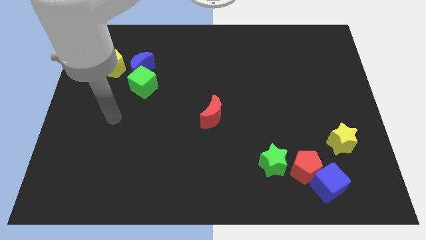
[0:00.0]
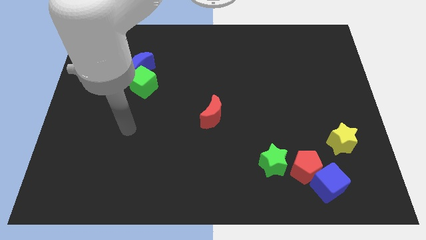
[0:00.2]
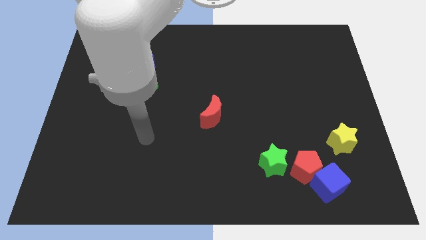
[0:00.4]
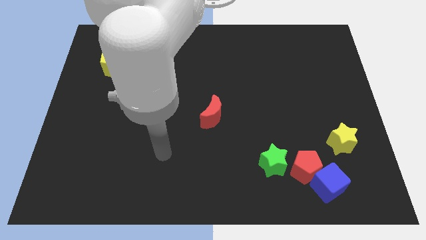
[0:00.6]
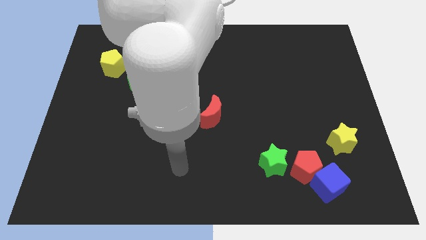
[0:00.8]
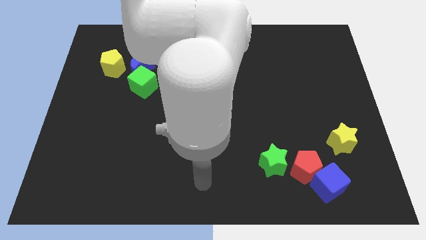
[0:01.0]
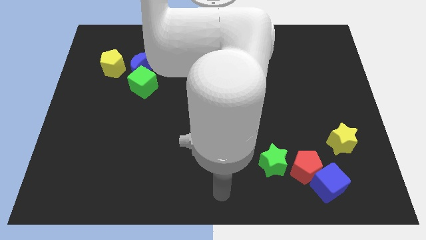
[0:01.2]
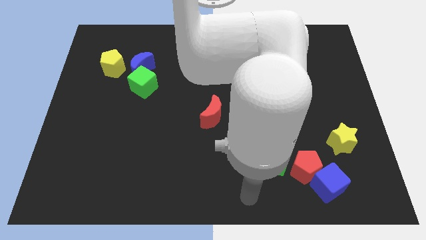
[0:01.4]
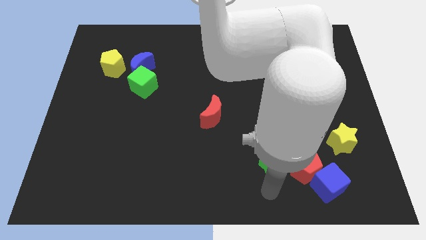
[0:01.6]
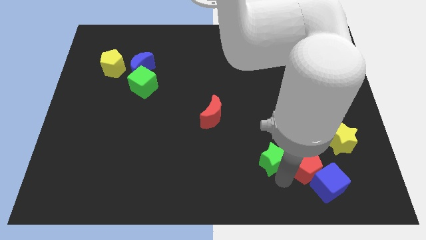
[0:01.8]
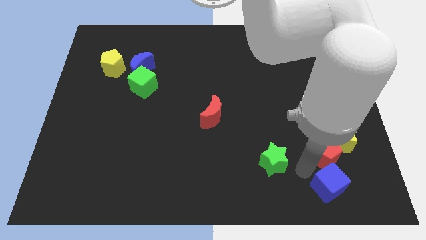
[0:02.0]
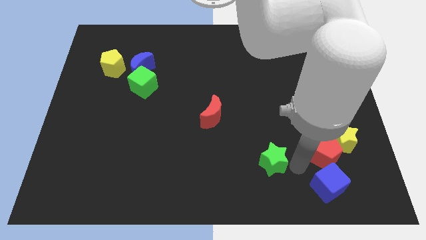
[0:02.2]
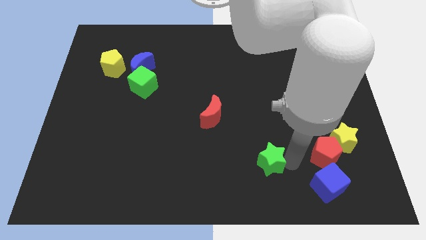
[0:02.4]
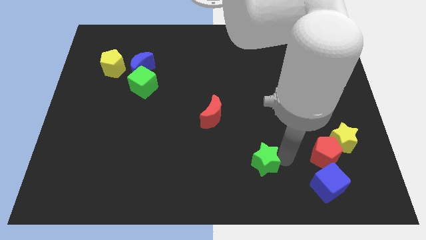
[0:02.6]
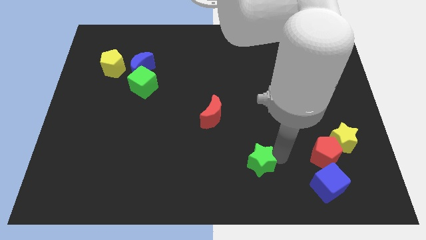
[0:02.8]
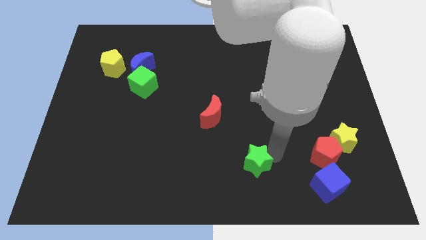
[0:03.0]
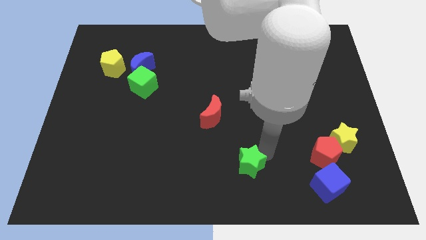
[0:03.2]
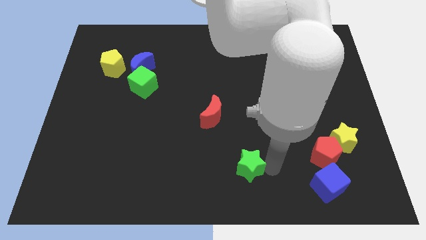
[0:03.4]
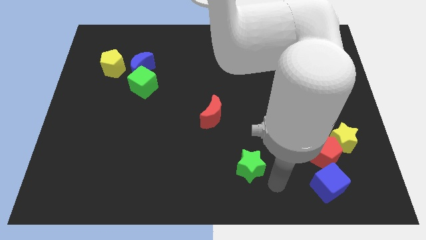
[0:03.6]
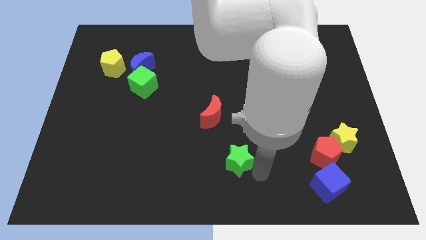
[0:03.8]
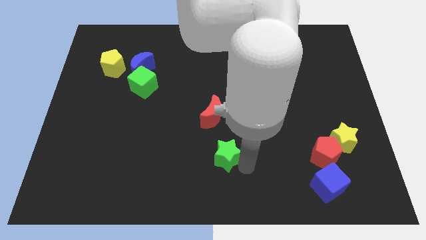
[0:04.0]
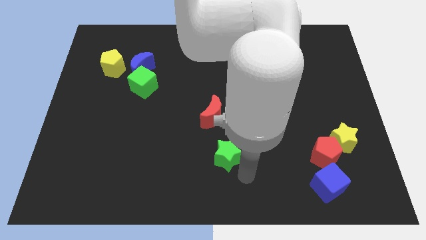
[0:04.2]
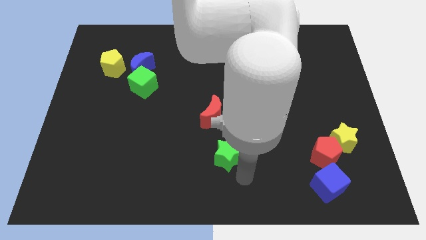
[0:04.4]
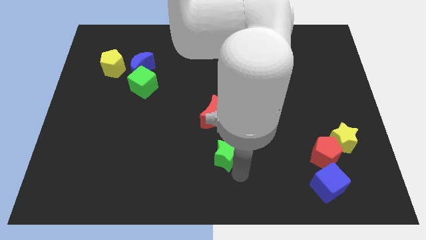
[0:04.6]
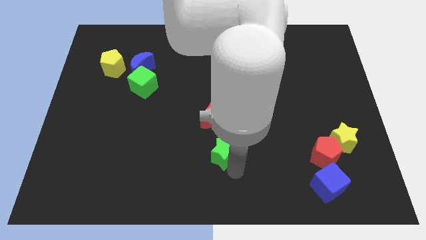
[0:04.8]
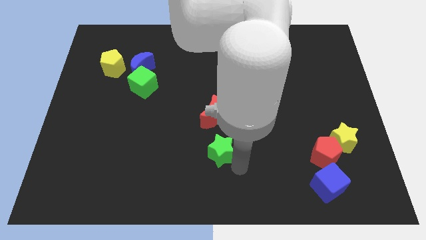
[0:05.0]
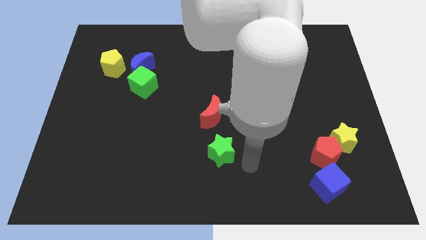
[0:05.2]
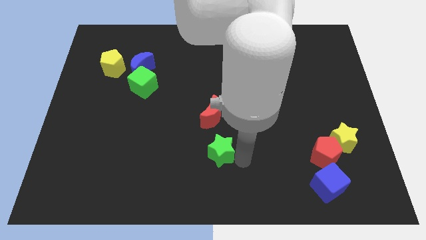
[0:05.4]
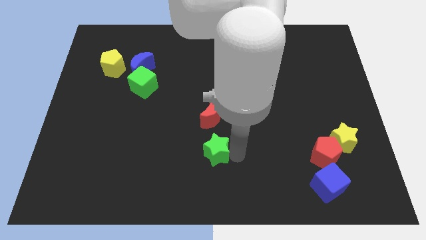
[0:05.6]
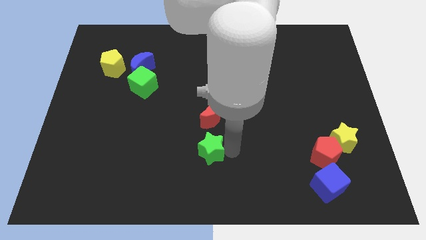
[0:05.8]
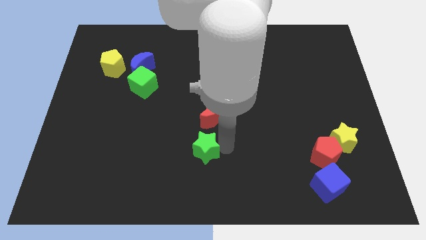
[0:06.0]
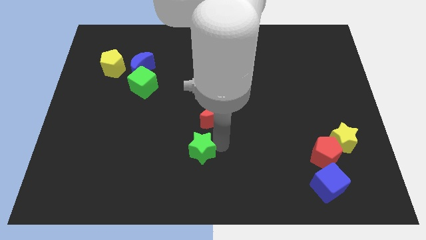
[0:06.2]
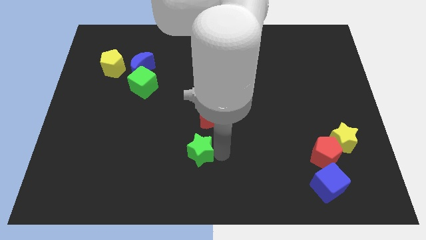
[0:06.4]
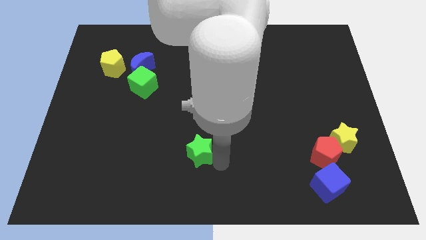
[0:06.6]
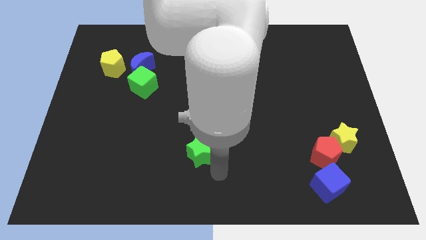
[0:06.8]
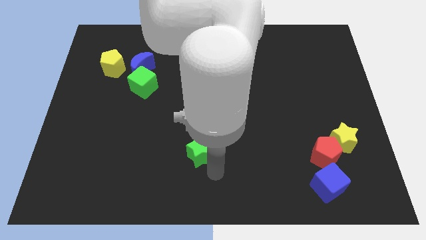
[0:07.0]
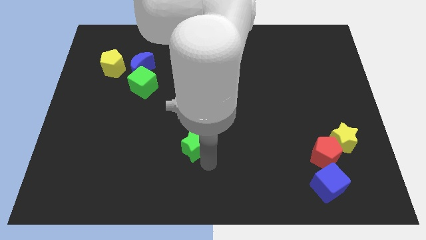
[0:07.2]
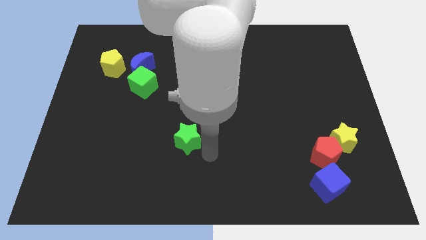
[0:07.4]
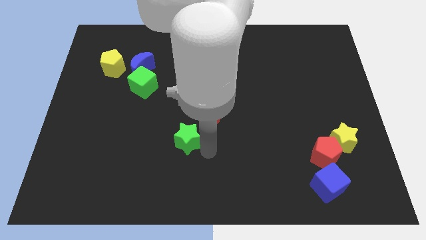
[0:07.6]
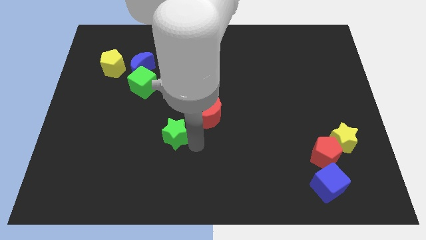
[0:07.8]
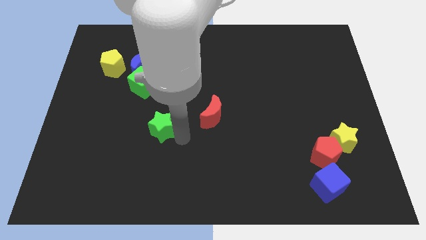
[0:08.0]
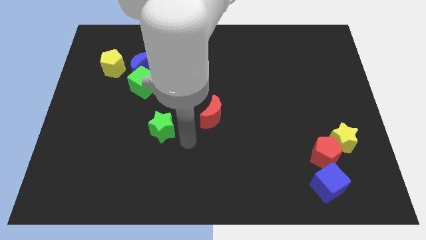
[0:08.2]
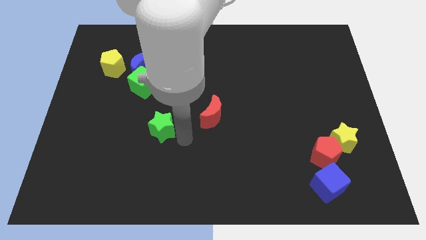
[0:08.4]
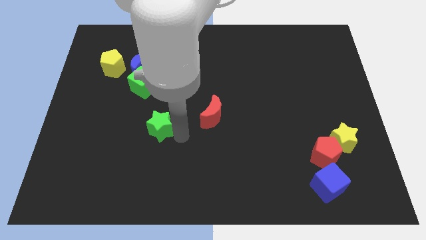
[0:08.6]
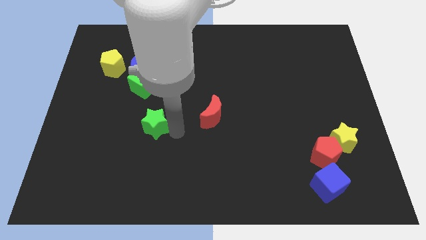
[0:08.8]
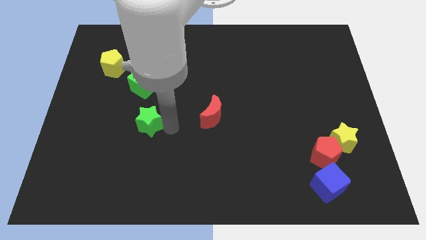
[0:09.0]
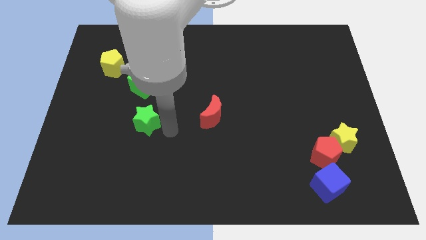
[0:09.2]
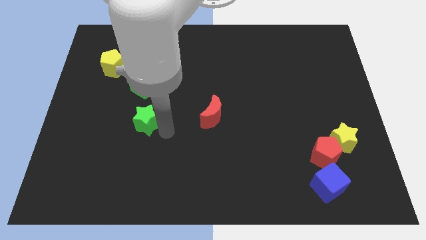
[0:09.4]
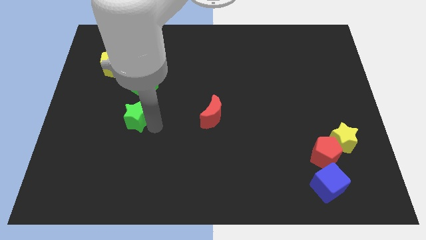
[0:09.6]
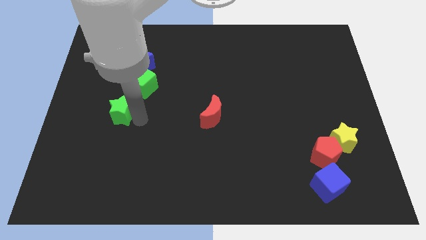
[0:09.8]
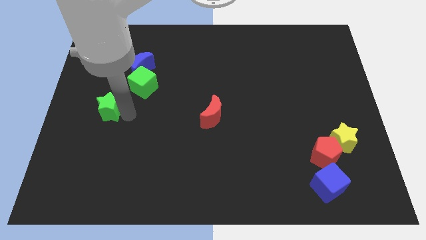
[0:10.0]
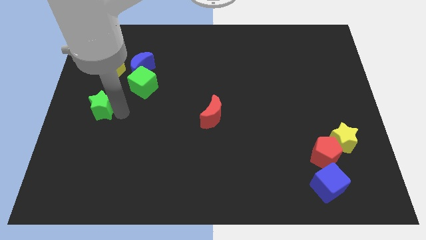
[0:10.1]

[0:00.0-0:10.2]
slide the green star to the left side

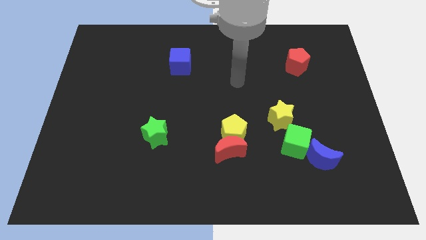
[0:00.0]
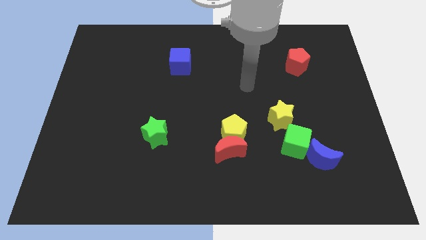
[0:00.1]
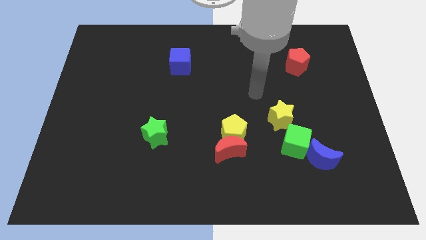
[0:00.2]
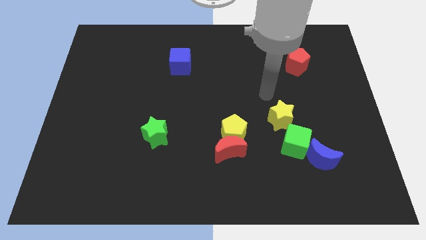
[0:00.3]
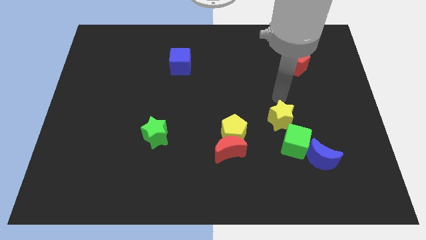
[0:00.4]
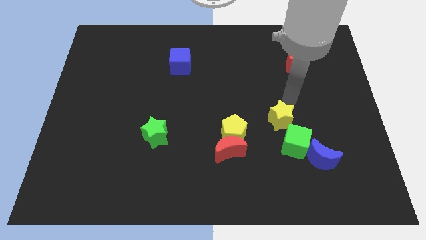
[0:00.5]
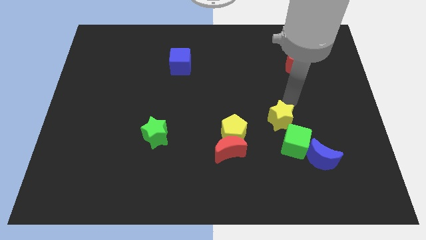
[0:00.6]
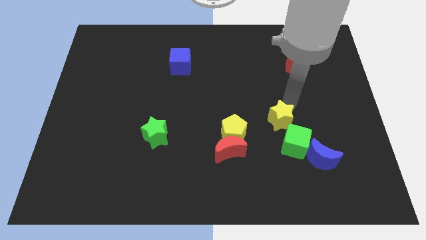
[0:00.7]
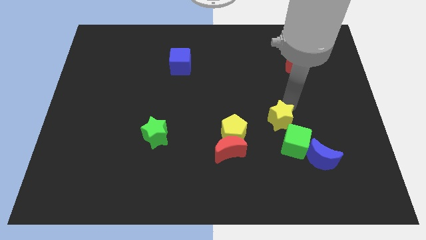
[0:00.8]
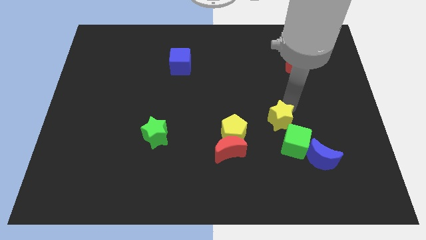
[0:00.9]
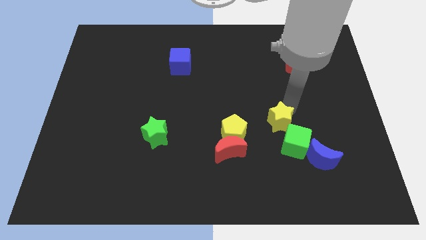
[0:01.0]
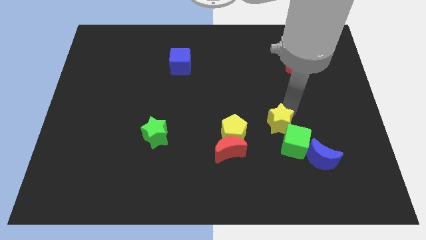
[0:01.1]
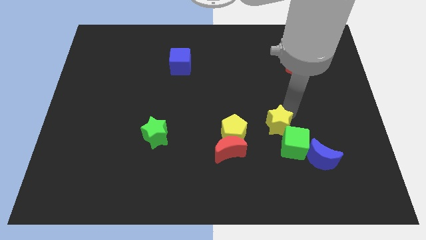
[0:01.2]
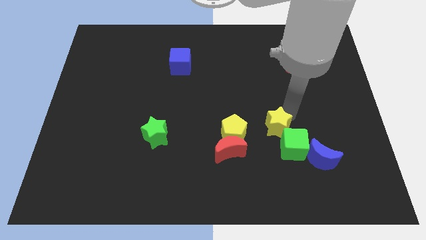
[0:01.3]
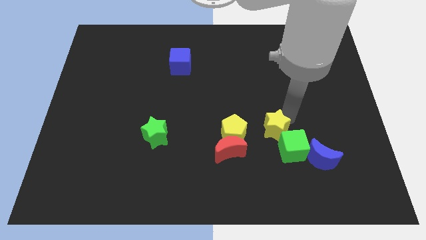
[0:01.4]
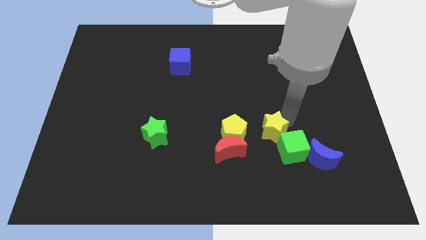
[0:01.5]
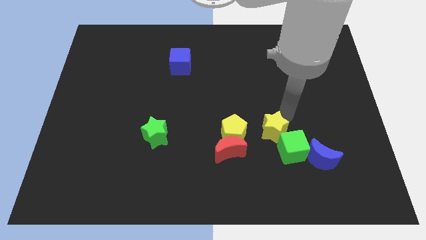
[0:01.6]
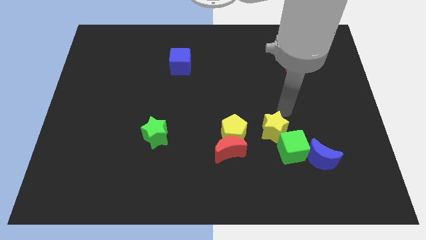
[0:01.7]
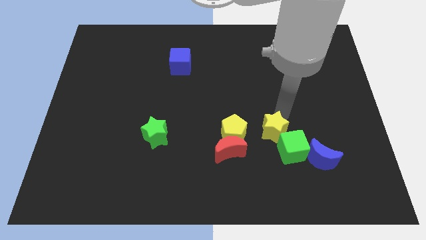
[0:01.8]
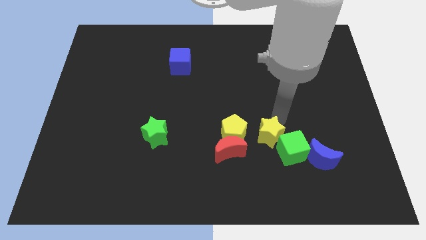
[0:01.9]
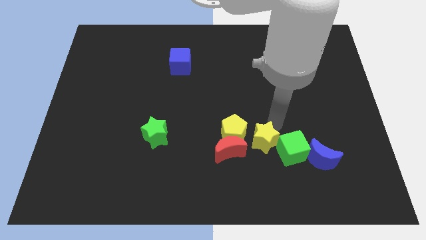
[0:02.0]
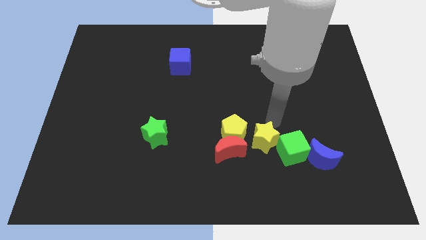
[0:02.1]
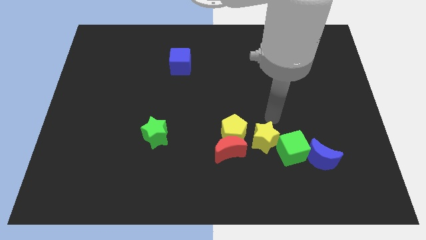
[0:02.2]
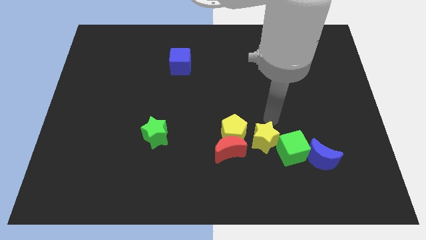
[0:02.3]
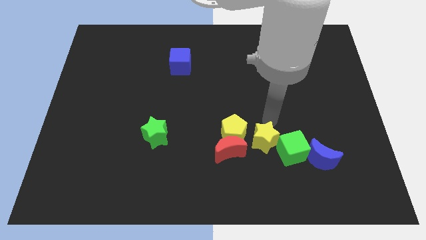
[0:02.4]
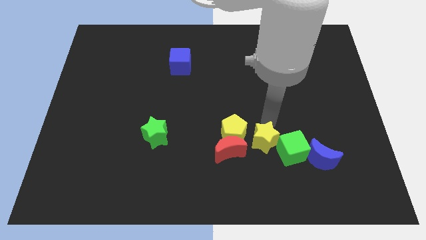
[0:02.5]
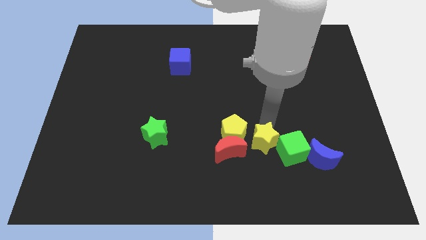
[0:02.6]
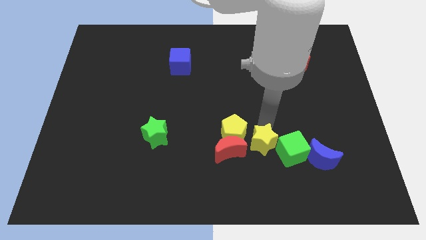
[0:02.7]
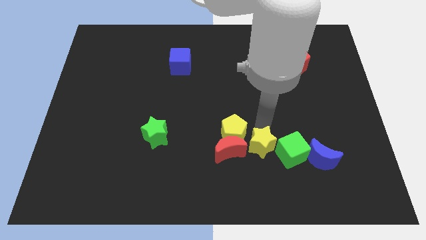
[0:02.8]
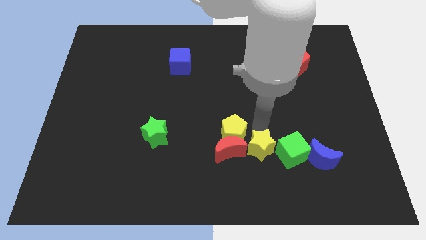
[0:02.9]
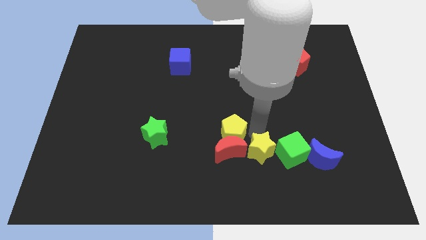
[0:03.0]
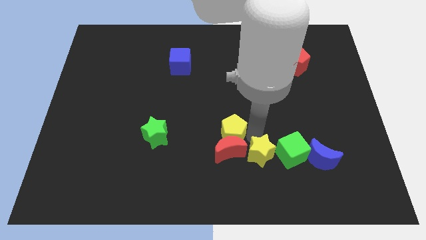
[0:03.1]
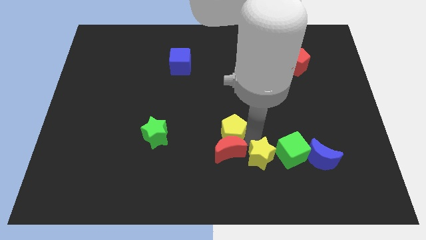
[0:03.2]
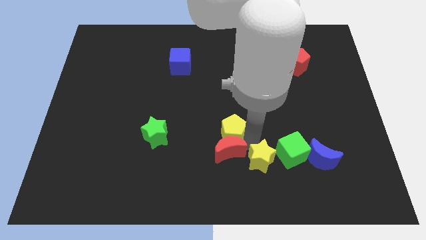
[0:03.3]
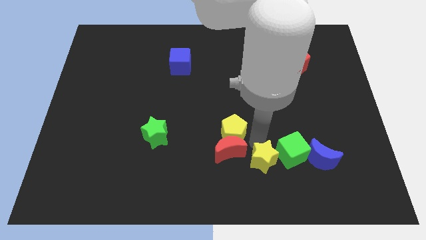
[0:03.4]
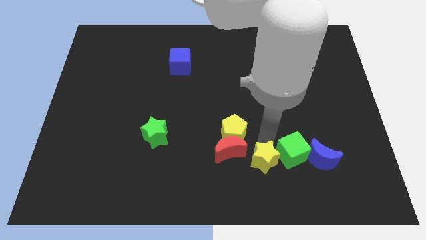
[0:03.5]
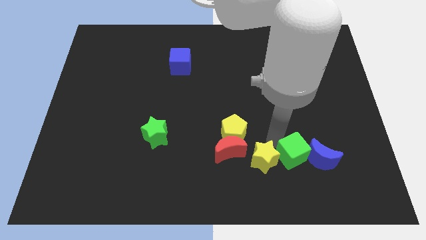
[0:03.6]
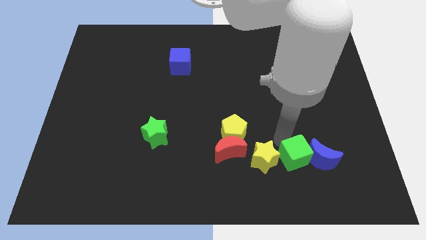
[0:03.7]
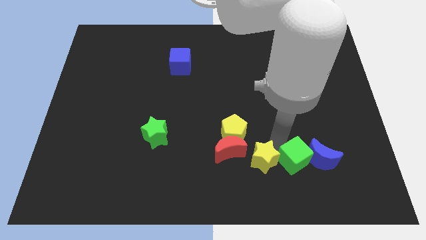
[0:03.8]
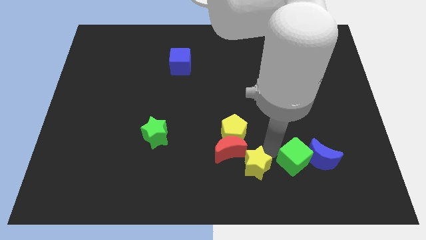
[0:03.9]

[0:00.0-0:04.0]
push the yellow star to the bottom
